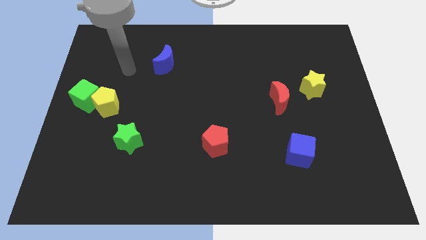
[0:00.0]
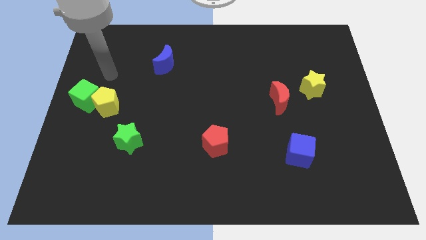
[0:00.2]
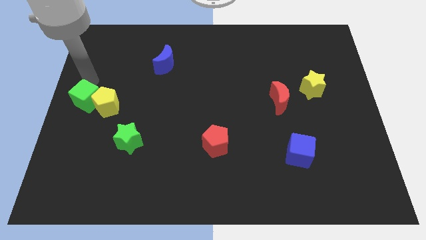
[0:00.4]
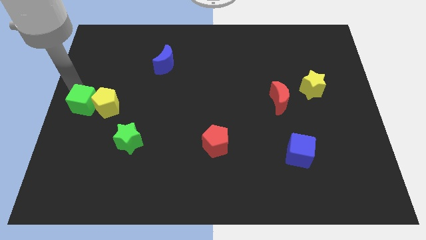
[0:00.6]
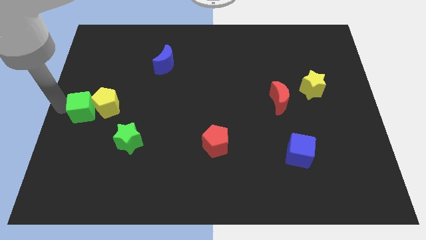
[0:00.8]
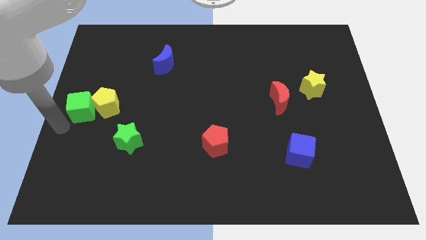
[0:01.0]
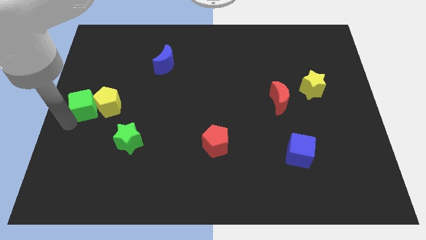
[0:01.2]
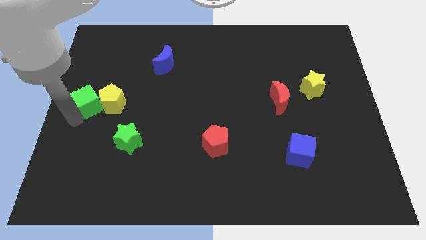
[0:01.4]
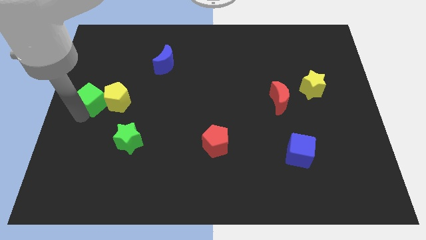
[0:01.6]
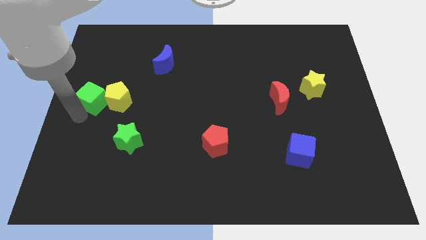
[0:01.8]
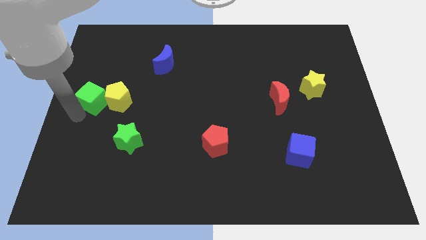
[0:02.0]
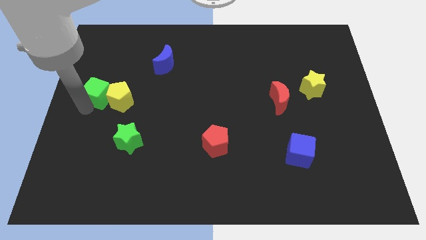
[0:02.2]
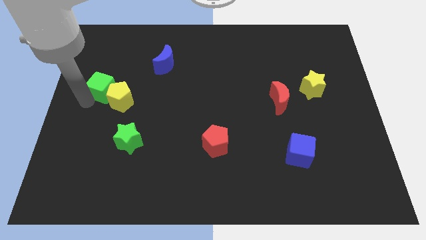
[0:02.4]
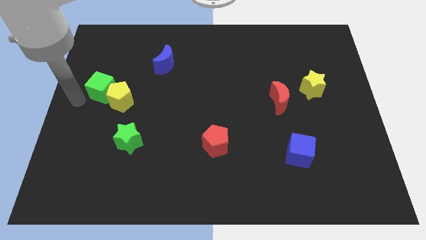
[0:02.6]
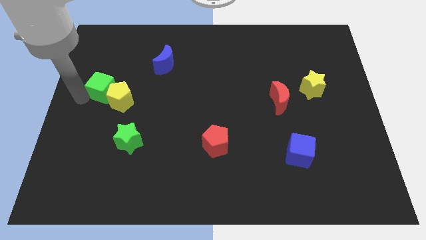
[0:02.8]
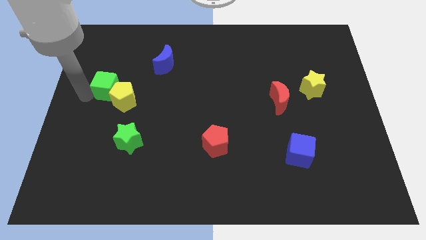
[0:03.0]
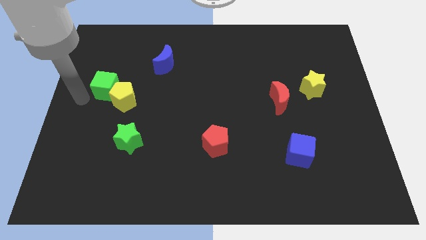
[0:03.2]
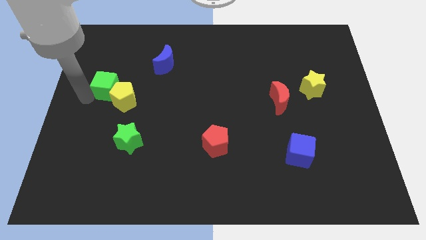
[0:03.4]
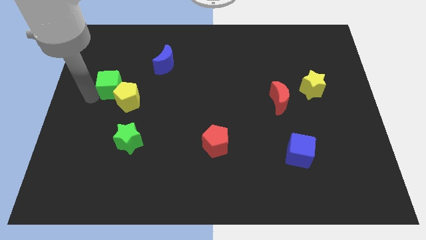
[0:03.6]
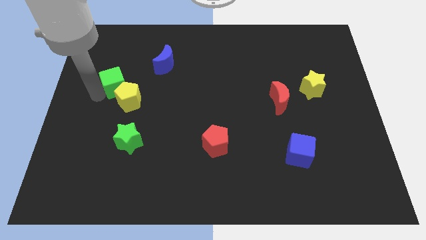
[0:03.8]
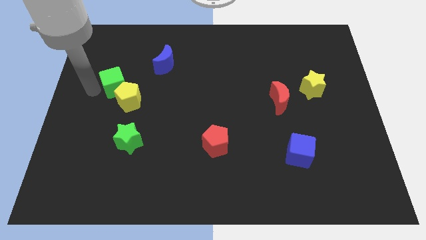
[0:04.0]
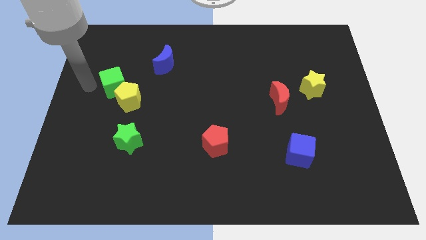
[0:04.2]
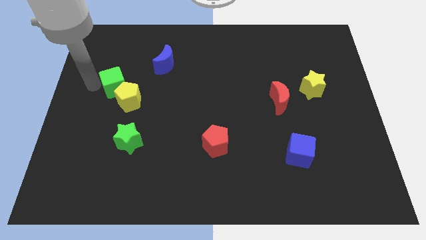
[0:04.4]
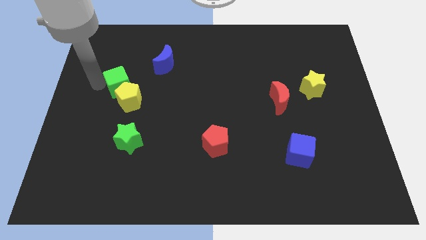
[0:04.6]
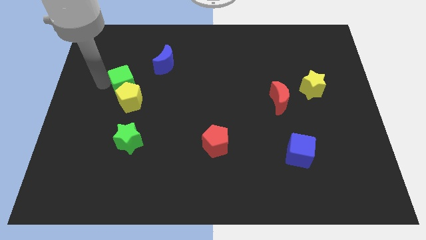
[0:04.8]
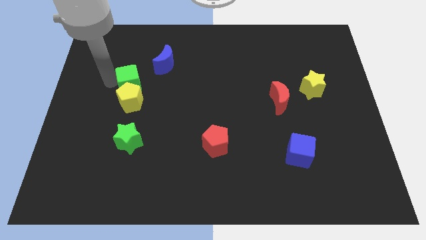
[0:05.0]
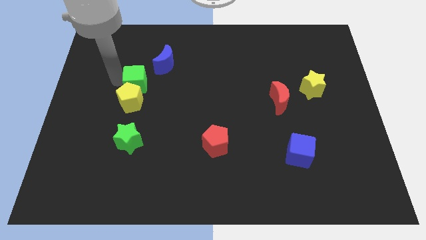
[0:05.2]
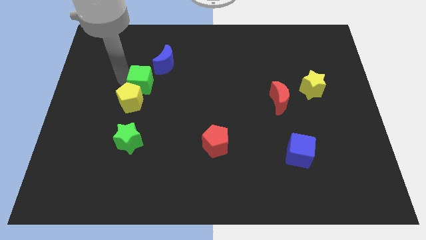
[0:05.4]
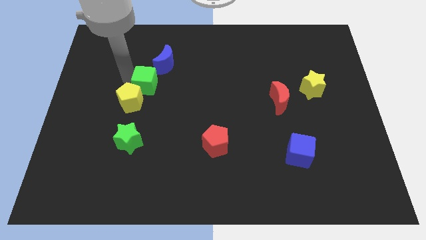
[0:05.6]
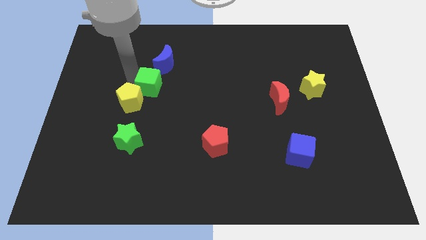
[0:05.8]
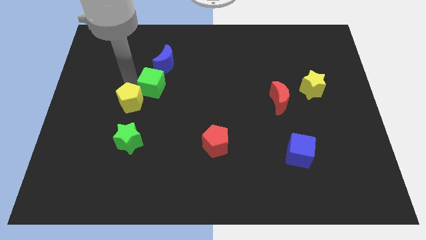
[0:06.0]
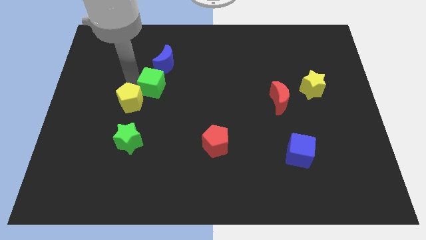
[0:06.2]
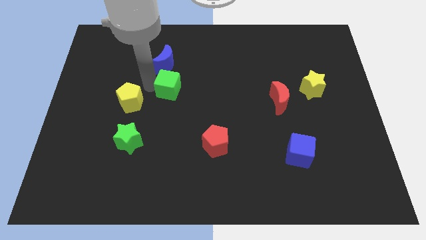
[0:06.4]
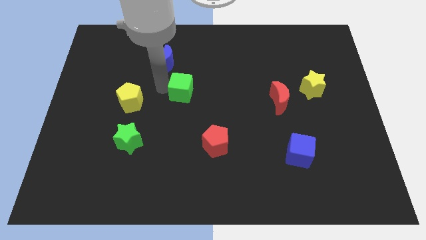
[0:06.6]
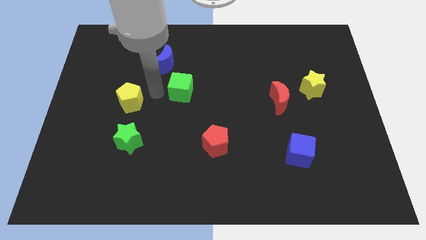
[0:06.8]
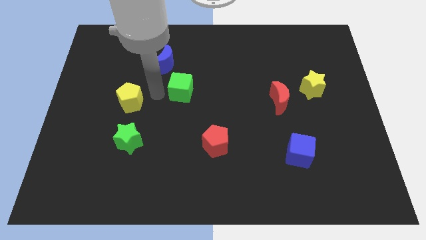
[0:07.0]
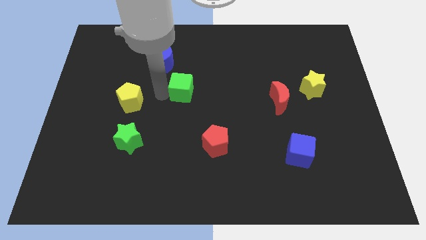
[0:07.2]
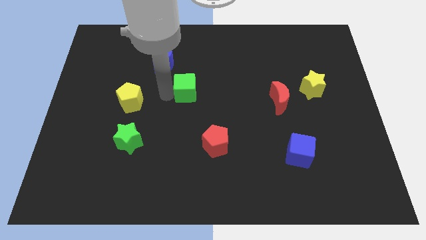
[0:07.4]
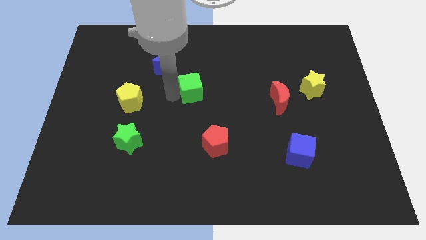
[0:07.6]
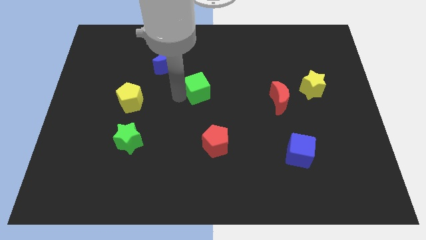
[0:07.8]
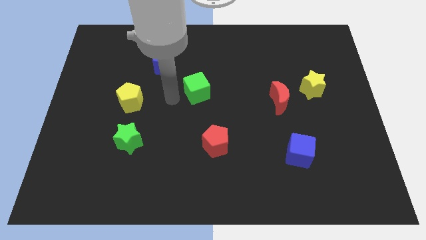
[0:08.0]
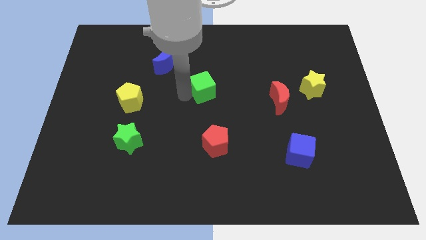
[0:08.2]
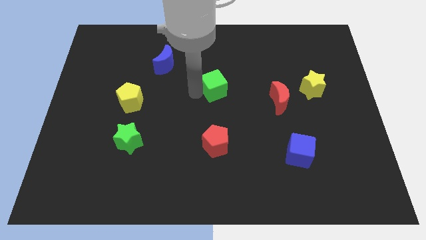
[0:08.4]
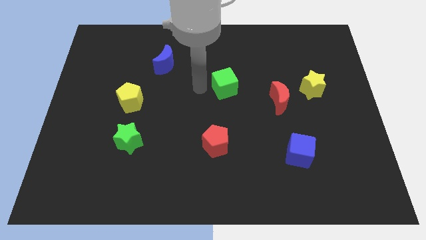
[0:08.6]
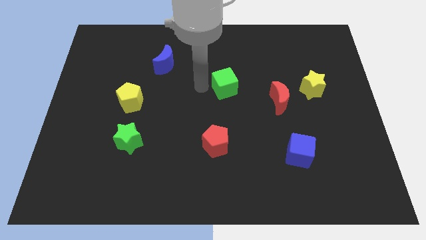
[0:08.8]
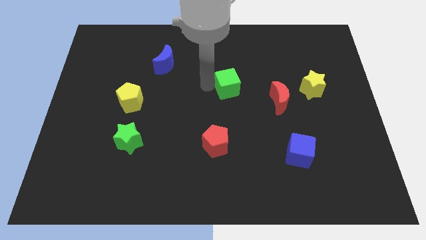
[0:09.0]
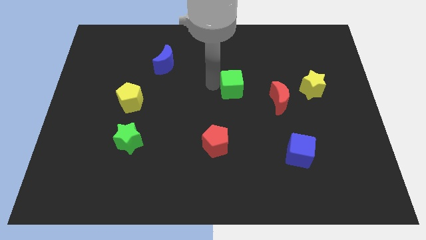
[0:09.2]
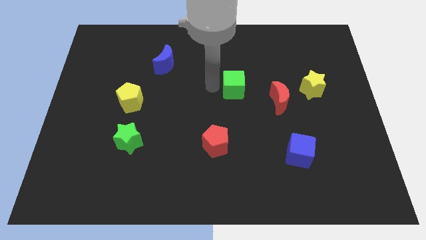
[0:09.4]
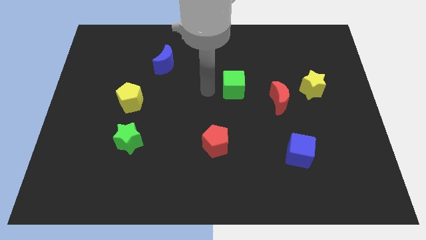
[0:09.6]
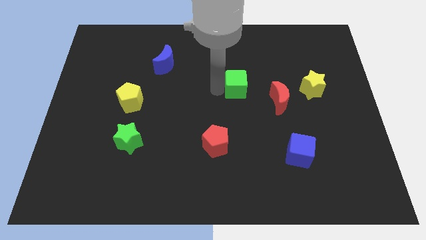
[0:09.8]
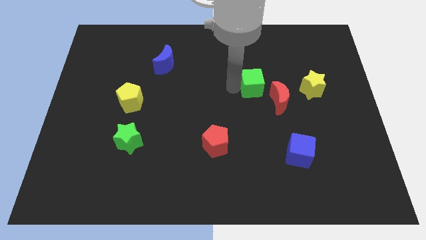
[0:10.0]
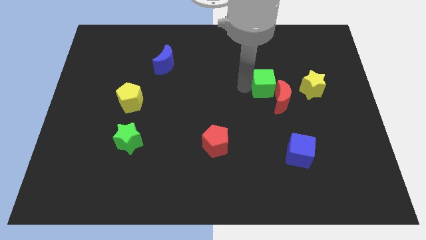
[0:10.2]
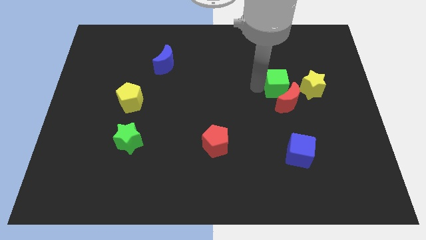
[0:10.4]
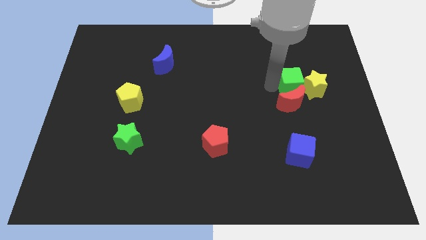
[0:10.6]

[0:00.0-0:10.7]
move the green cube to the yellow star

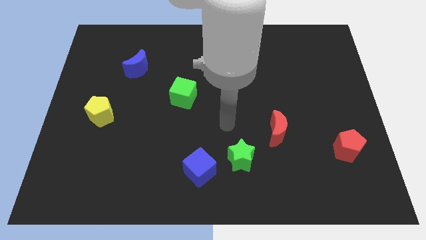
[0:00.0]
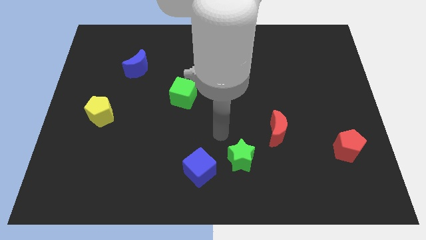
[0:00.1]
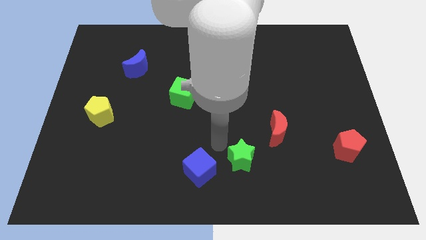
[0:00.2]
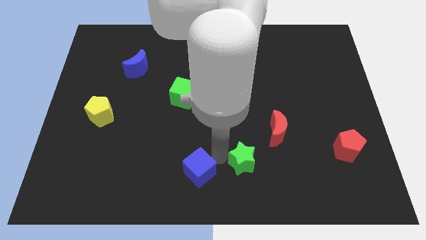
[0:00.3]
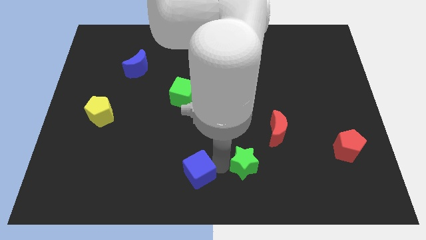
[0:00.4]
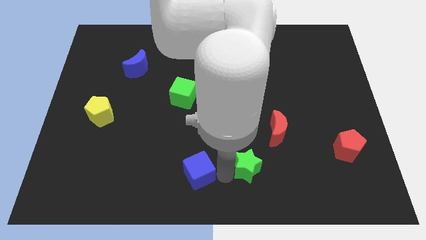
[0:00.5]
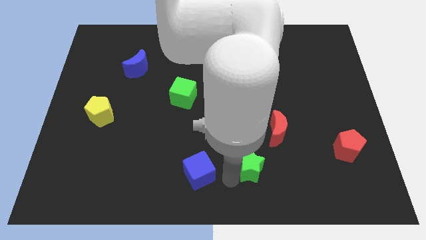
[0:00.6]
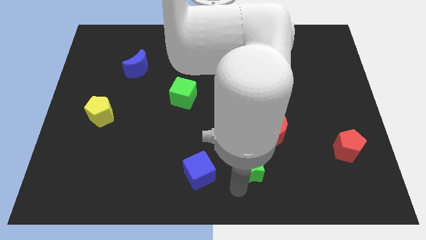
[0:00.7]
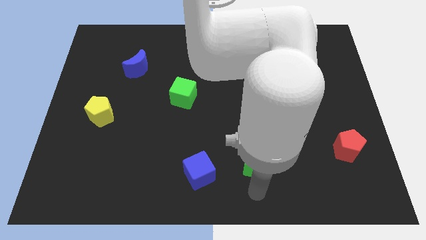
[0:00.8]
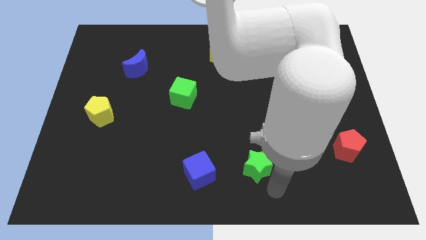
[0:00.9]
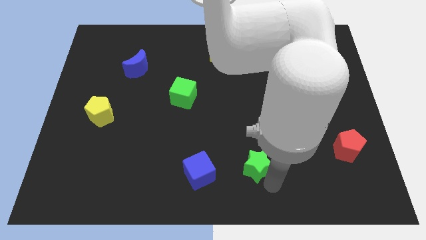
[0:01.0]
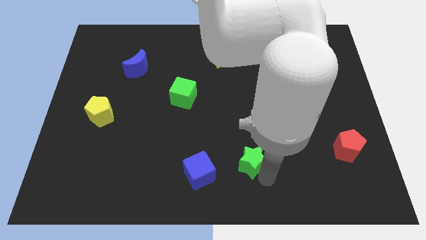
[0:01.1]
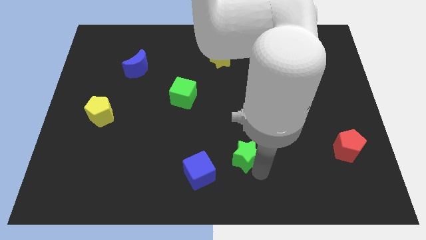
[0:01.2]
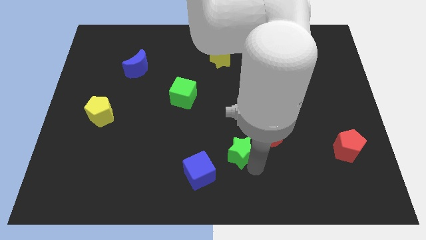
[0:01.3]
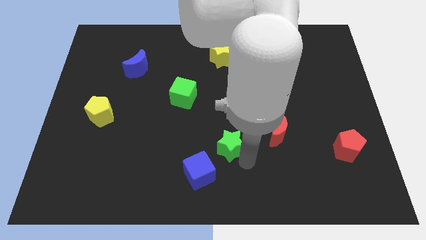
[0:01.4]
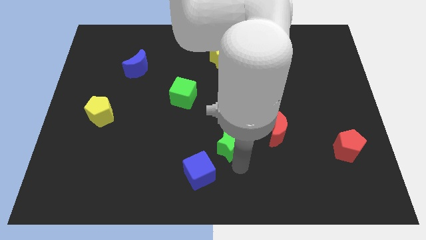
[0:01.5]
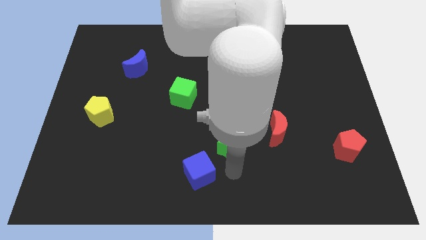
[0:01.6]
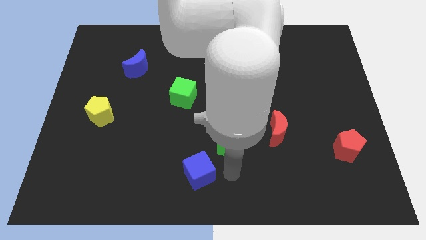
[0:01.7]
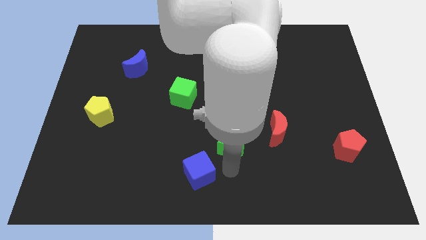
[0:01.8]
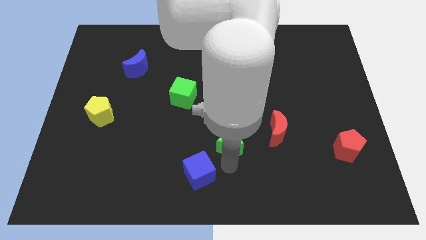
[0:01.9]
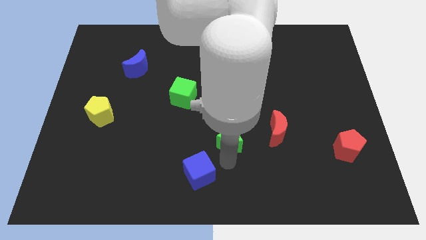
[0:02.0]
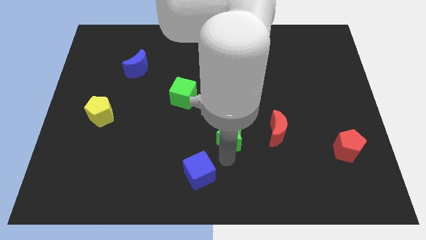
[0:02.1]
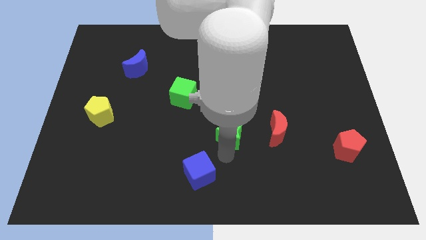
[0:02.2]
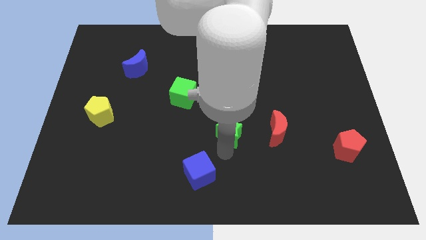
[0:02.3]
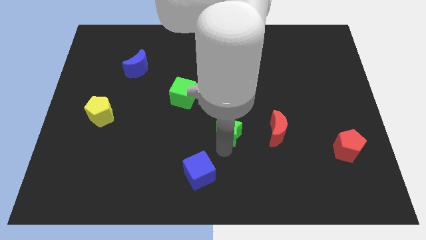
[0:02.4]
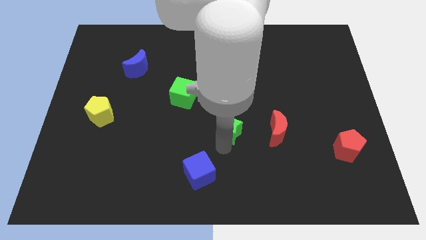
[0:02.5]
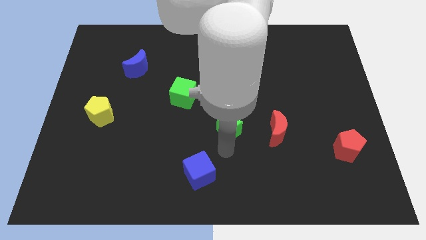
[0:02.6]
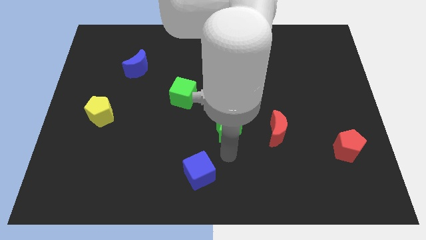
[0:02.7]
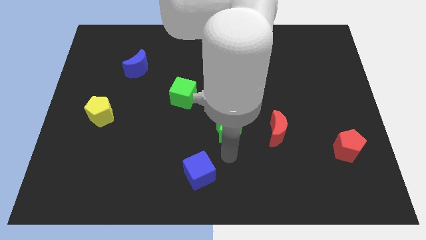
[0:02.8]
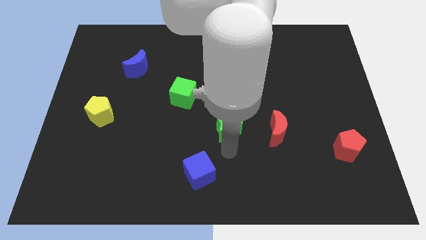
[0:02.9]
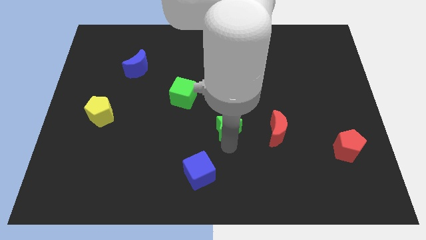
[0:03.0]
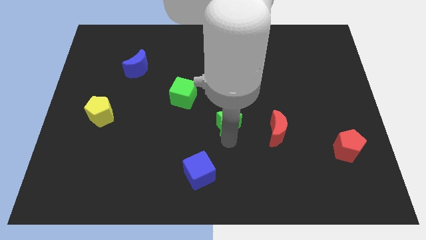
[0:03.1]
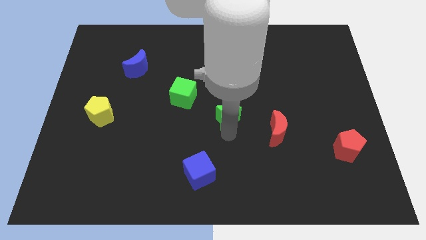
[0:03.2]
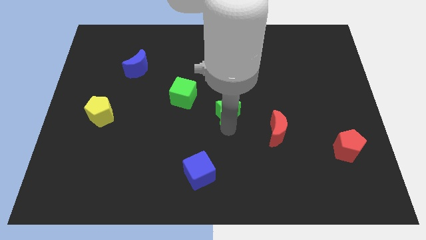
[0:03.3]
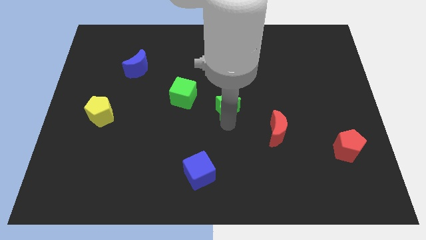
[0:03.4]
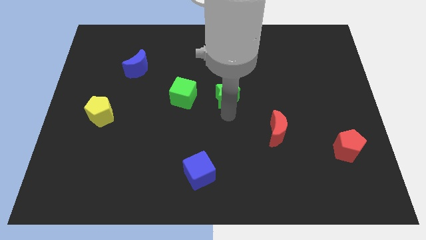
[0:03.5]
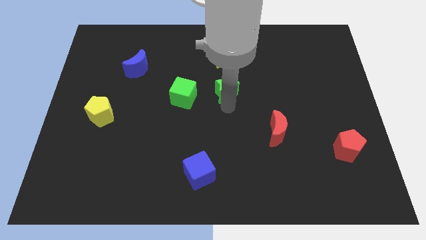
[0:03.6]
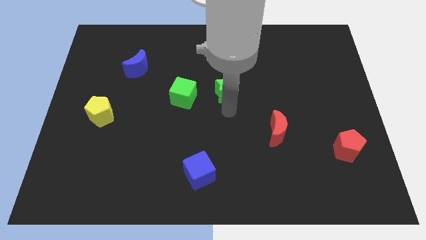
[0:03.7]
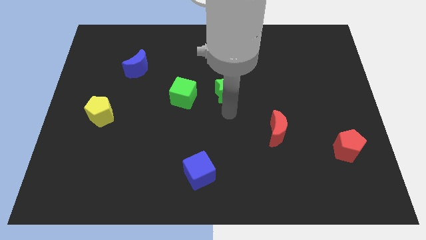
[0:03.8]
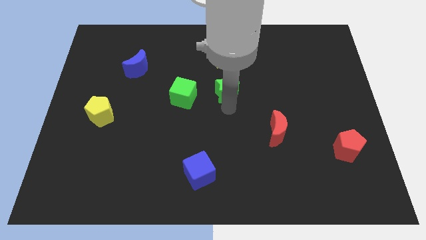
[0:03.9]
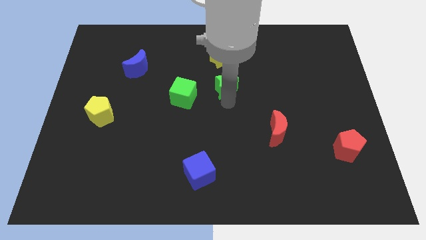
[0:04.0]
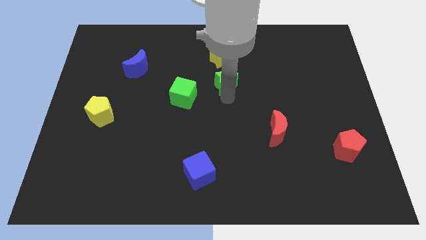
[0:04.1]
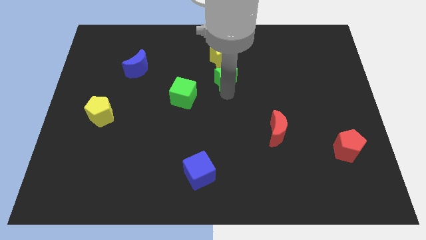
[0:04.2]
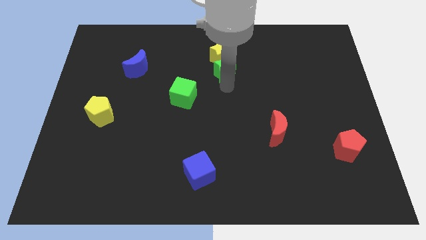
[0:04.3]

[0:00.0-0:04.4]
put the green star next to the yellow star
